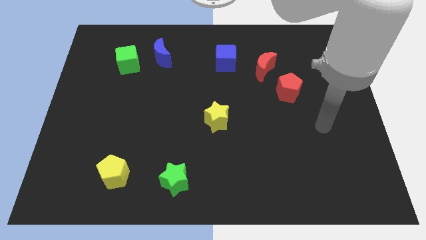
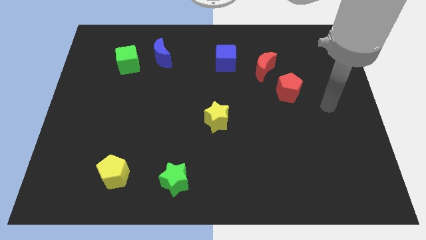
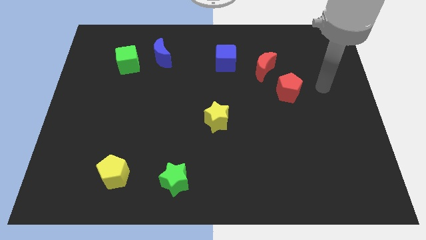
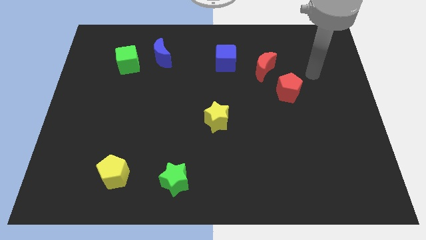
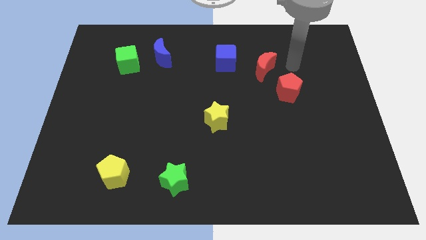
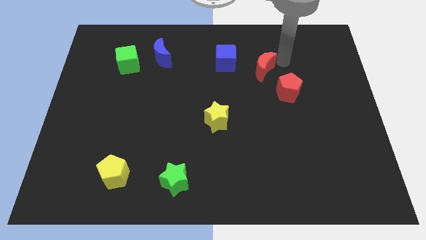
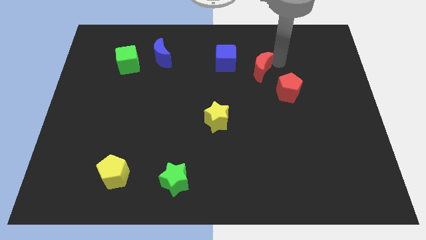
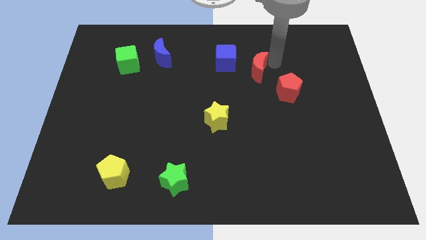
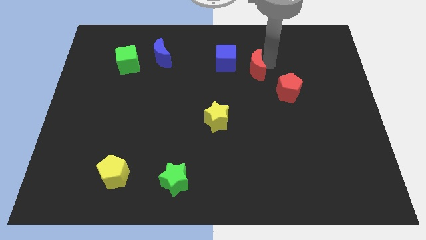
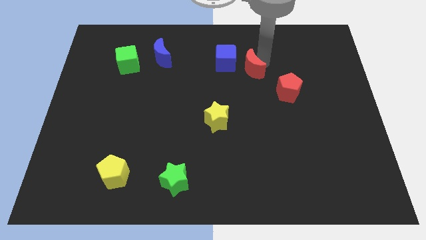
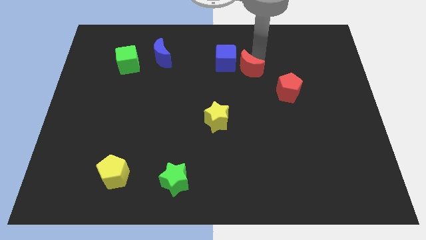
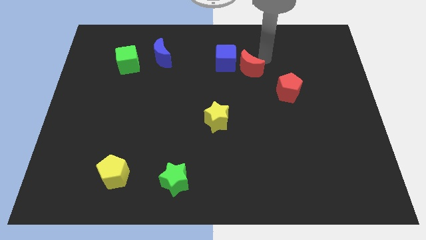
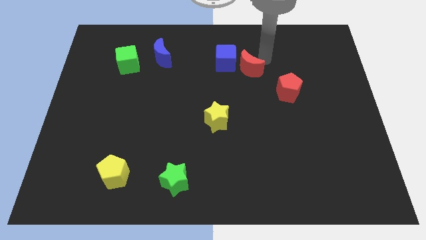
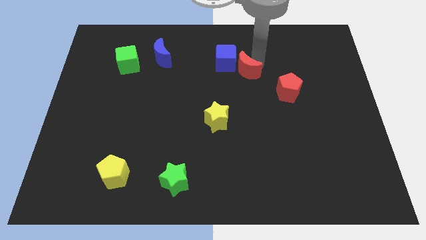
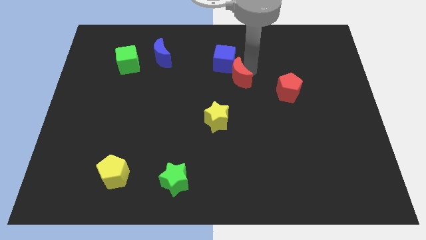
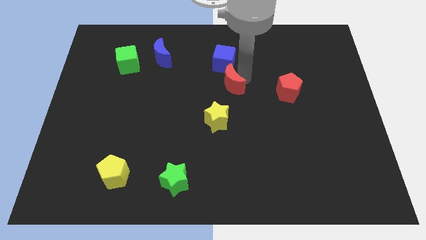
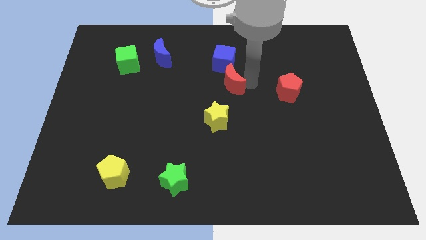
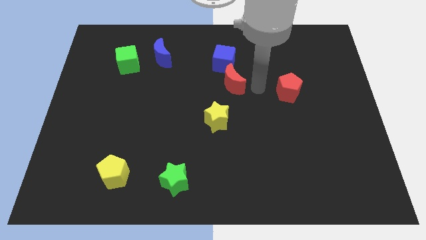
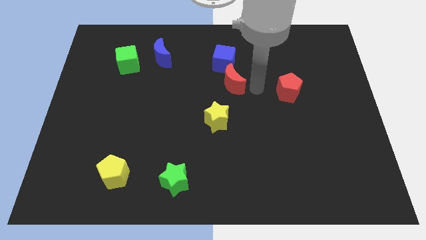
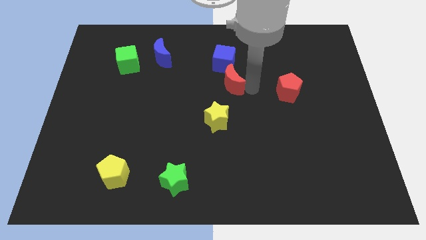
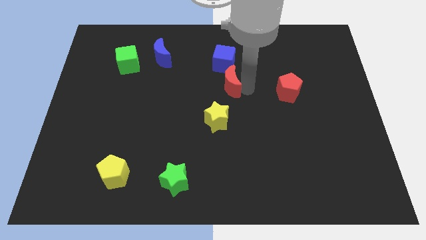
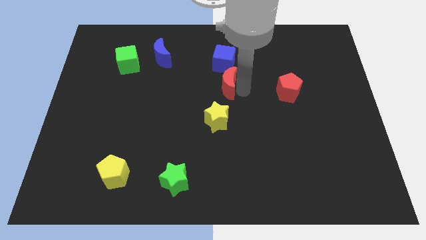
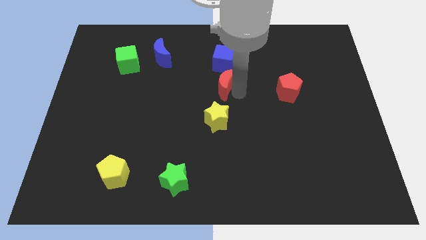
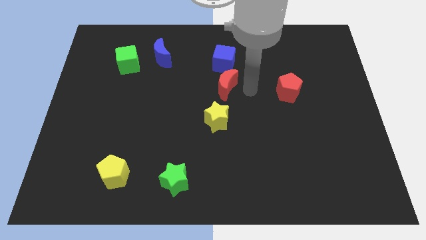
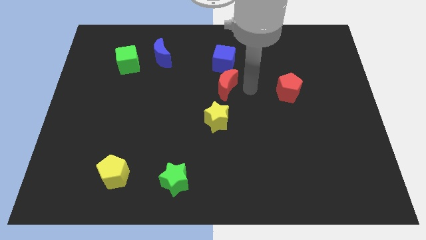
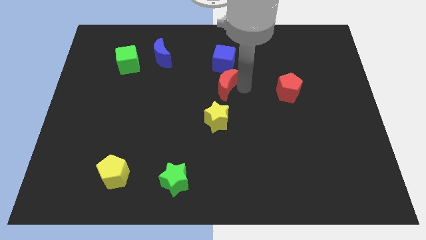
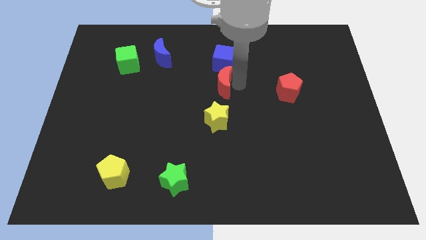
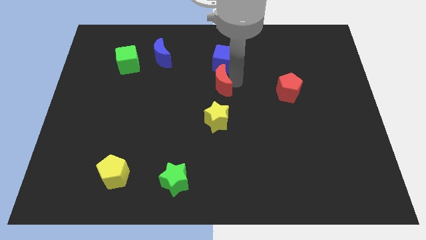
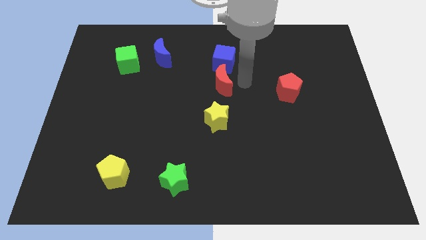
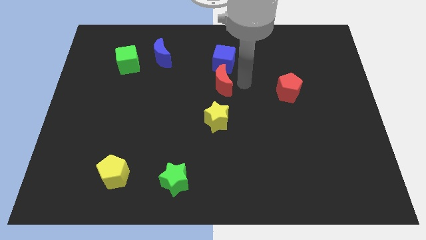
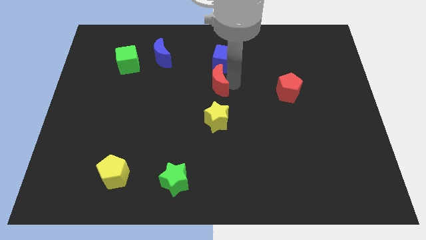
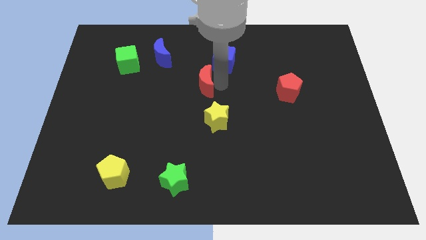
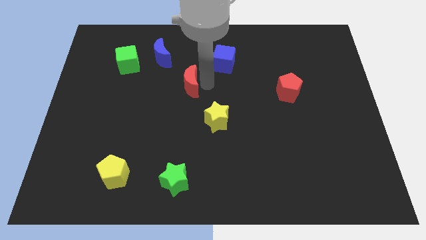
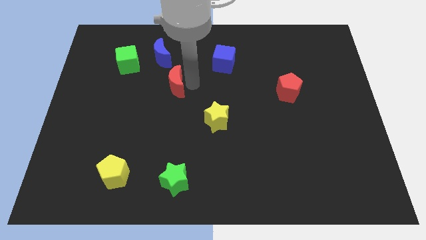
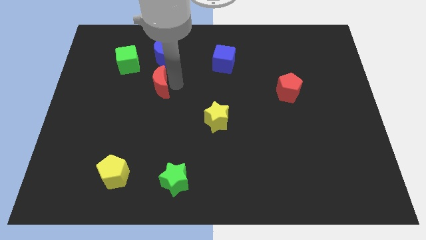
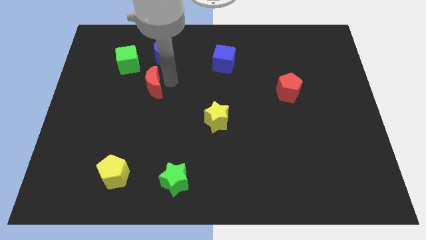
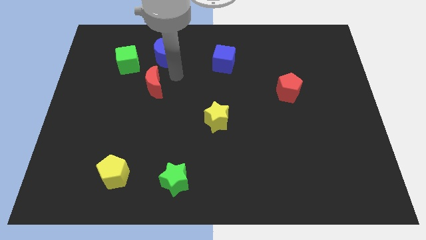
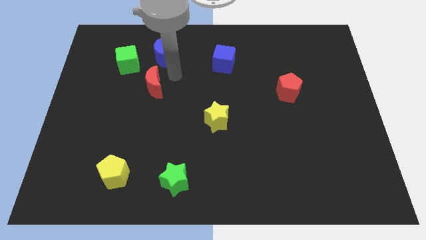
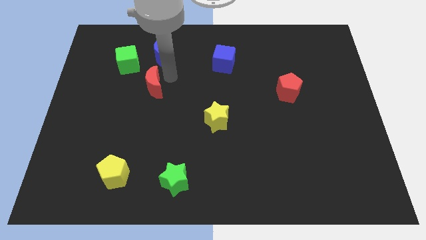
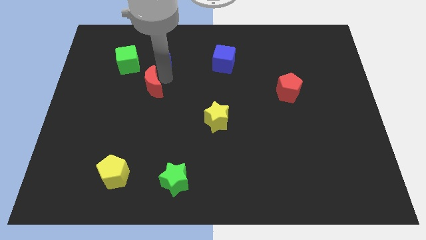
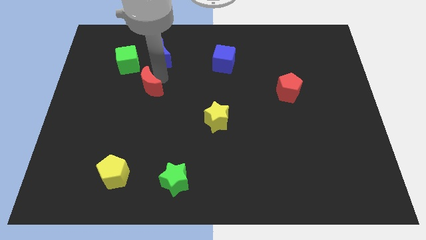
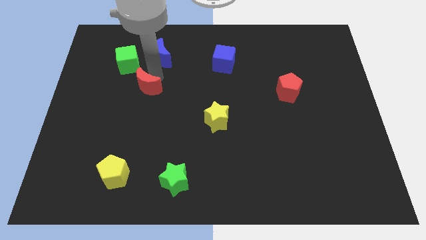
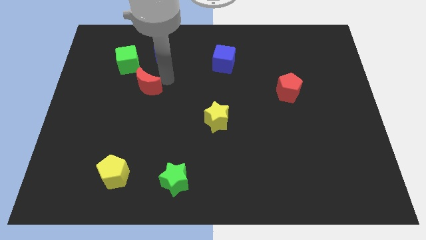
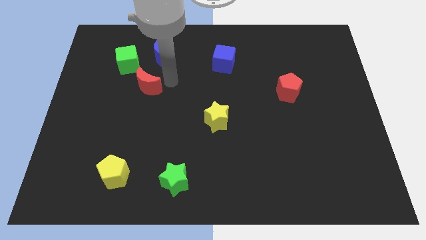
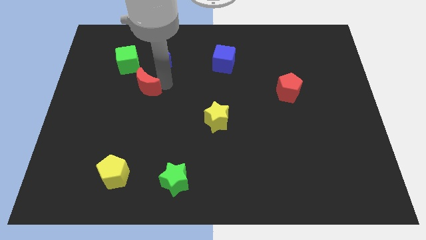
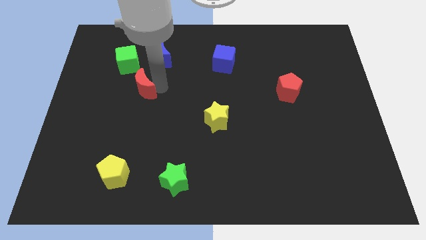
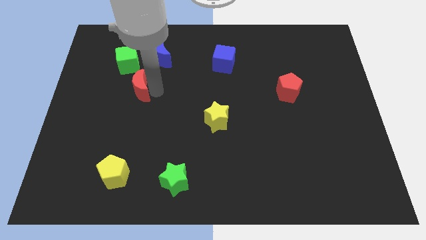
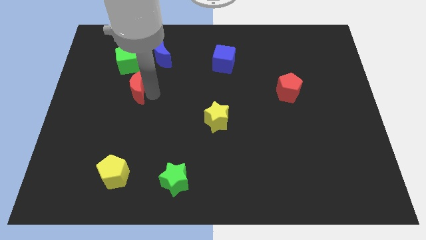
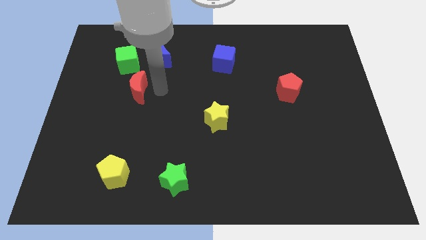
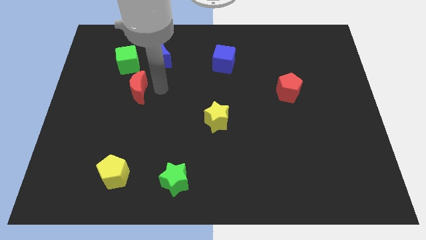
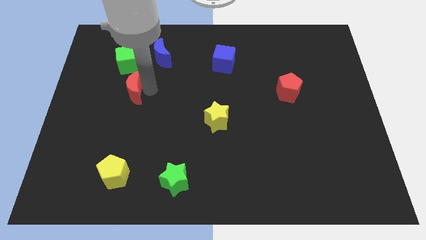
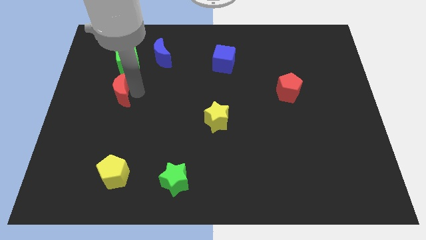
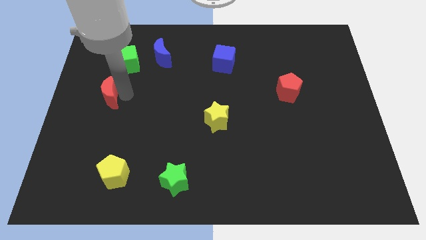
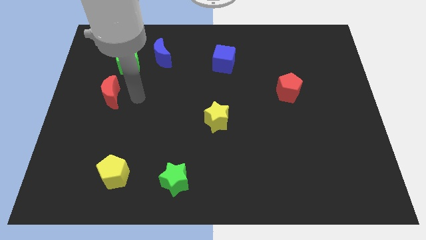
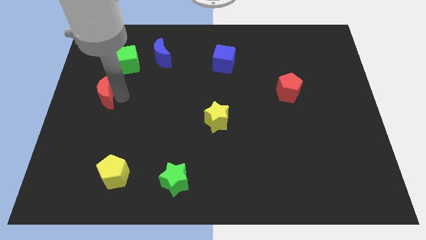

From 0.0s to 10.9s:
move the red moon to the left side
